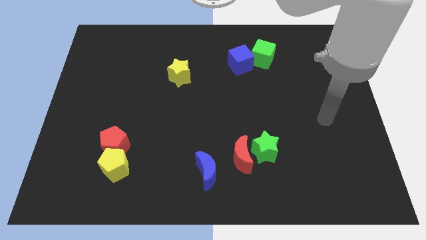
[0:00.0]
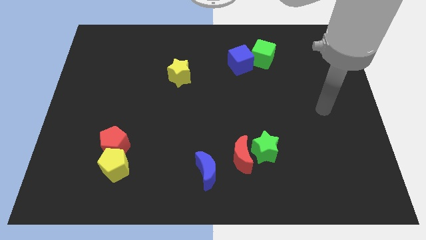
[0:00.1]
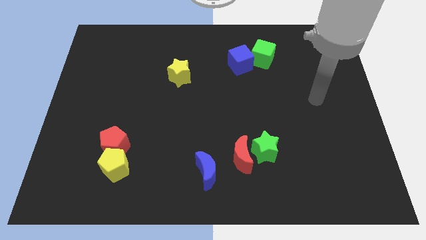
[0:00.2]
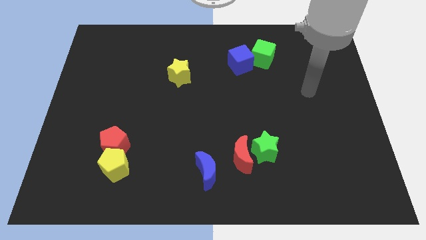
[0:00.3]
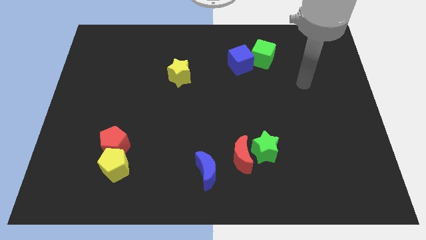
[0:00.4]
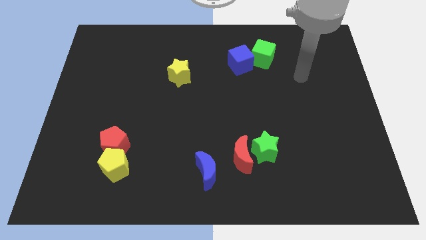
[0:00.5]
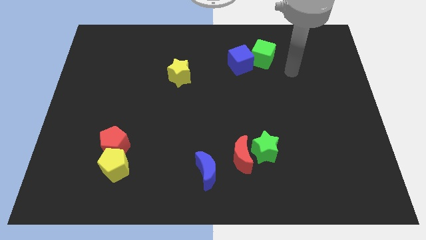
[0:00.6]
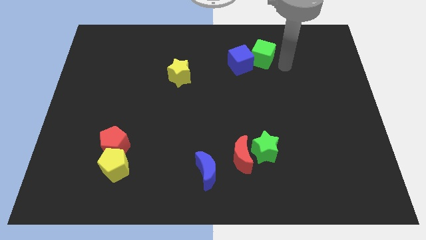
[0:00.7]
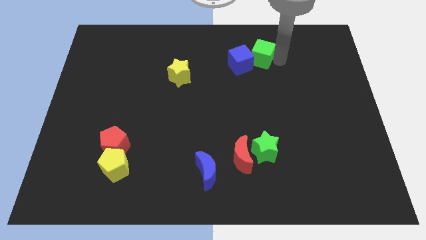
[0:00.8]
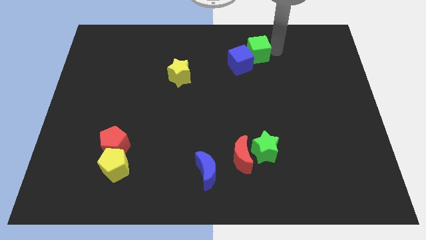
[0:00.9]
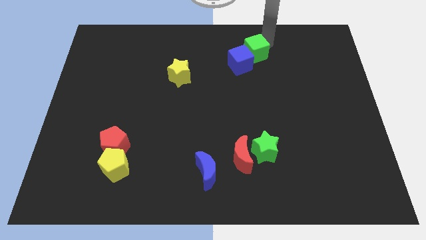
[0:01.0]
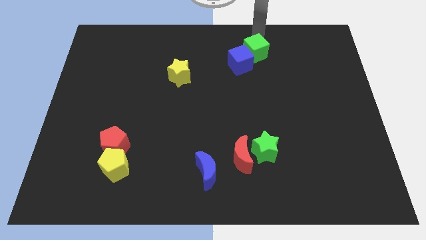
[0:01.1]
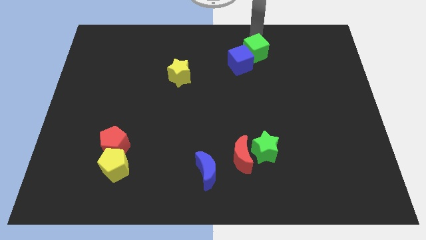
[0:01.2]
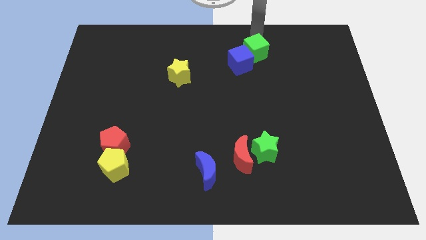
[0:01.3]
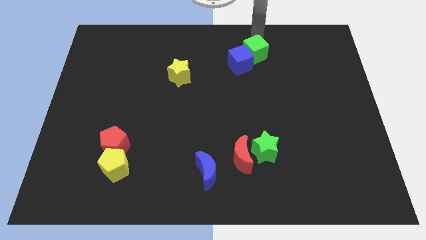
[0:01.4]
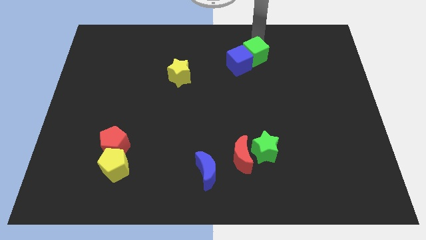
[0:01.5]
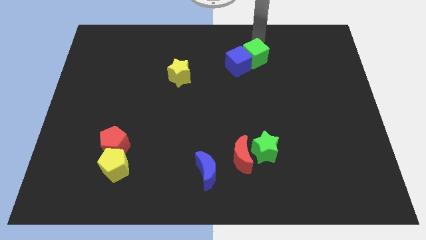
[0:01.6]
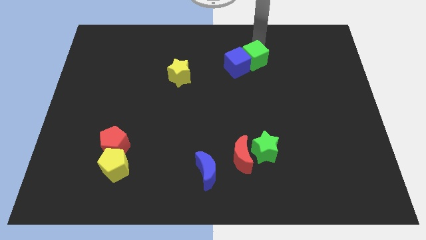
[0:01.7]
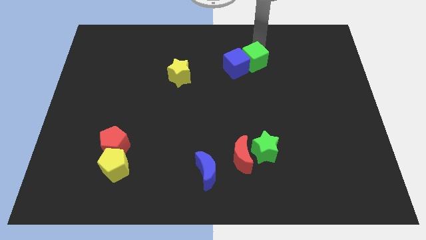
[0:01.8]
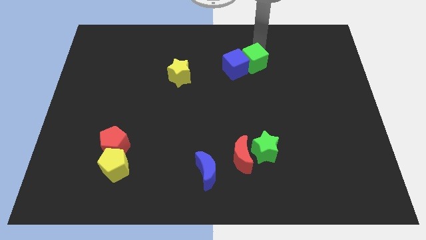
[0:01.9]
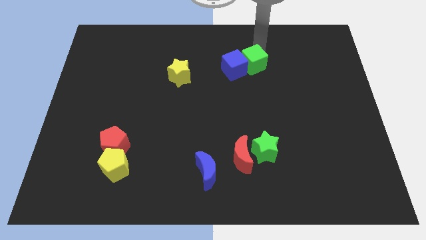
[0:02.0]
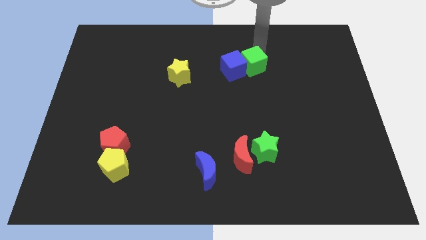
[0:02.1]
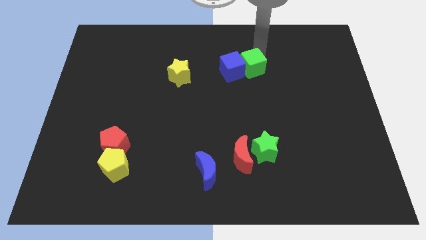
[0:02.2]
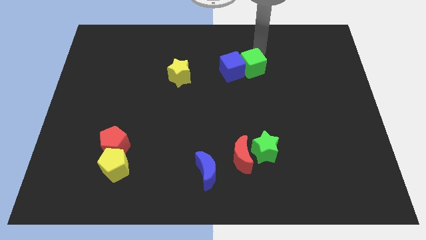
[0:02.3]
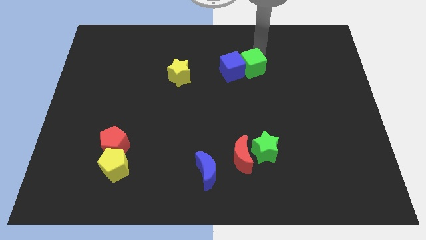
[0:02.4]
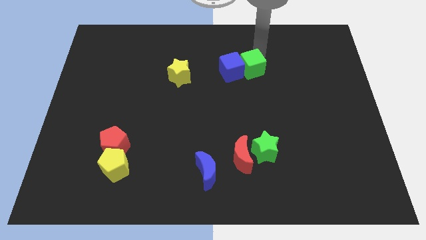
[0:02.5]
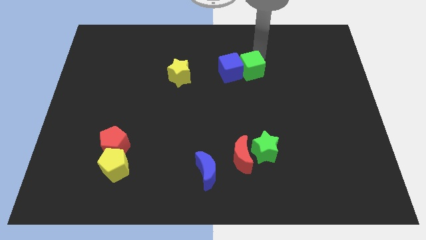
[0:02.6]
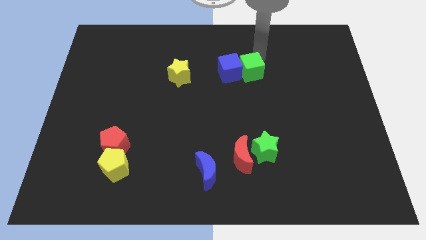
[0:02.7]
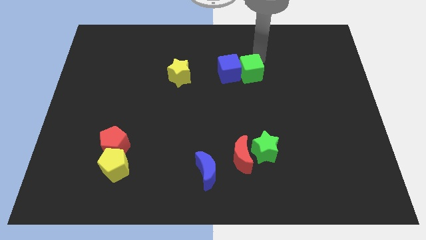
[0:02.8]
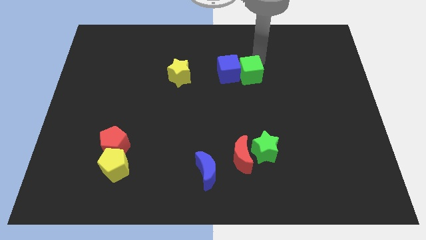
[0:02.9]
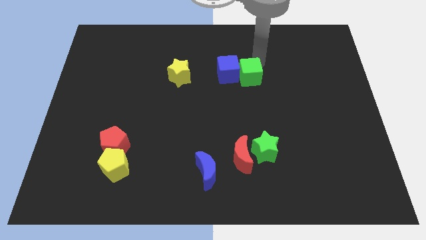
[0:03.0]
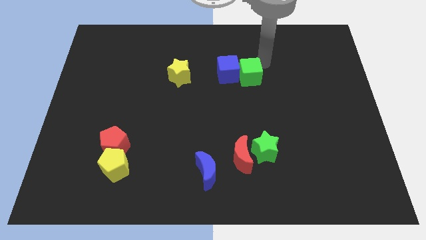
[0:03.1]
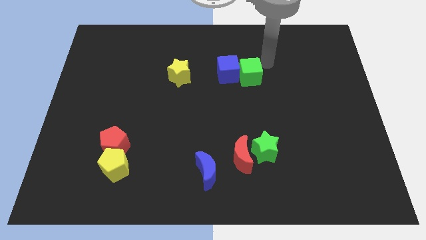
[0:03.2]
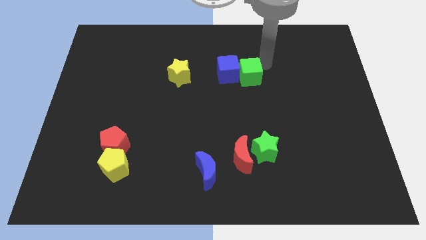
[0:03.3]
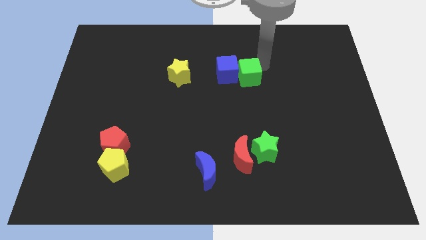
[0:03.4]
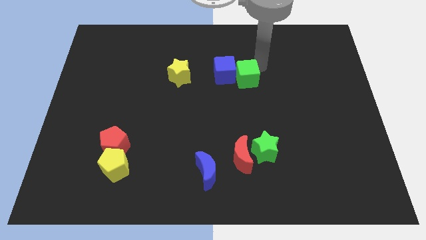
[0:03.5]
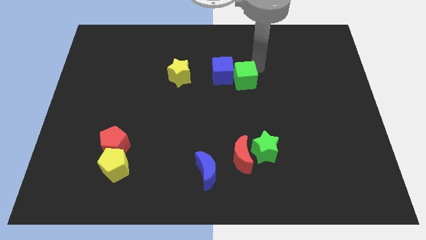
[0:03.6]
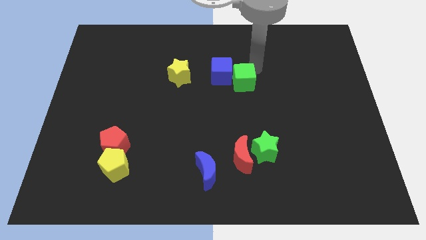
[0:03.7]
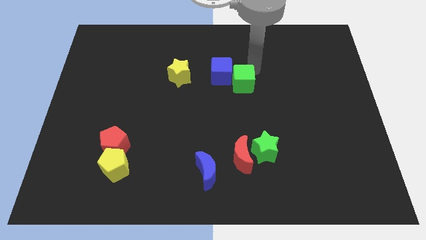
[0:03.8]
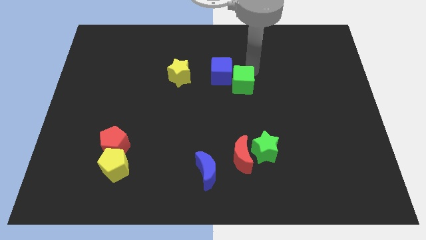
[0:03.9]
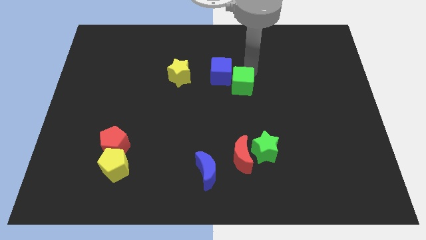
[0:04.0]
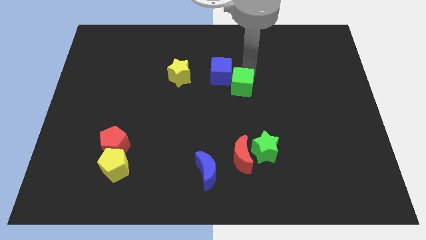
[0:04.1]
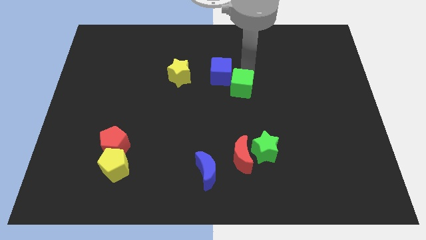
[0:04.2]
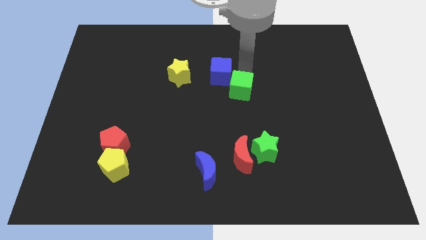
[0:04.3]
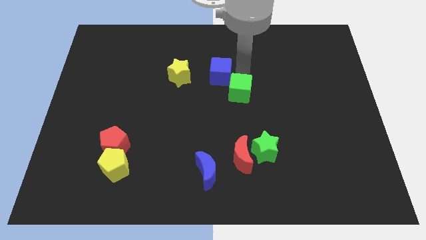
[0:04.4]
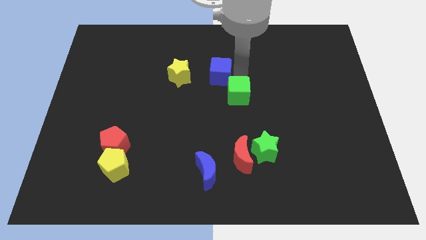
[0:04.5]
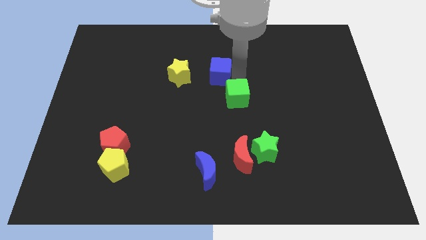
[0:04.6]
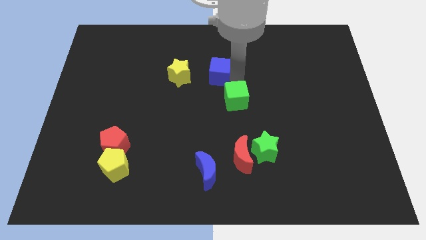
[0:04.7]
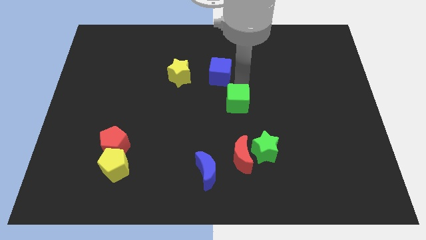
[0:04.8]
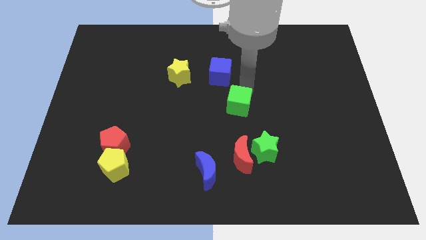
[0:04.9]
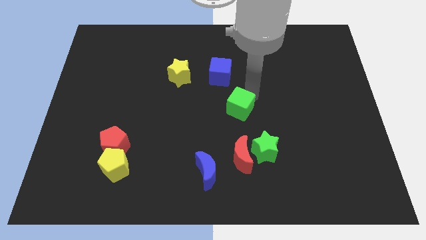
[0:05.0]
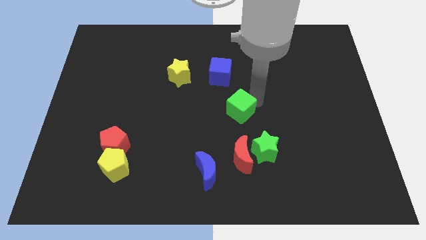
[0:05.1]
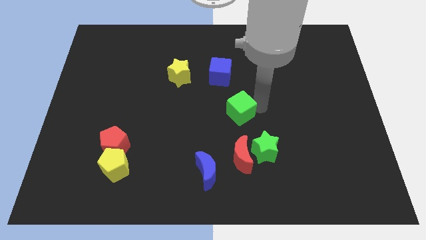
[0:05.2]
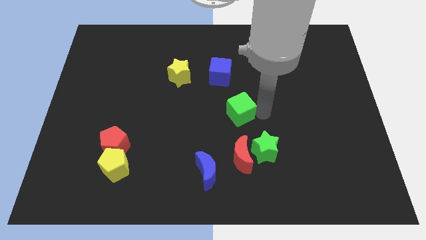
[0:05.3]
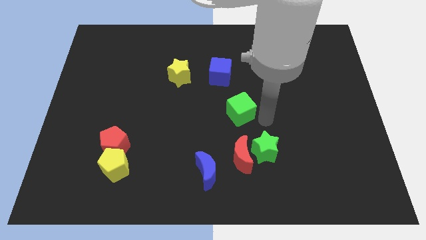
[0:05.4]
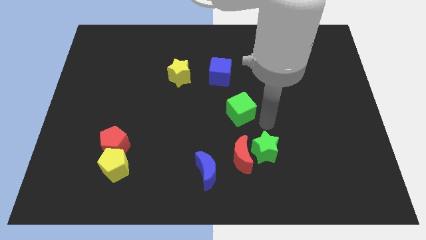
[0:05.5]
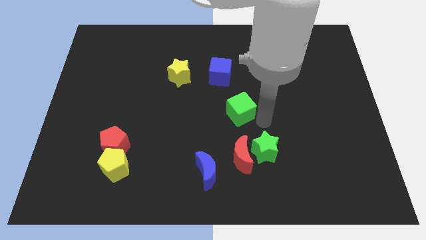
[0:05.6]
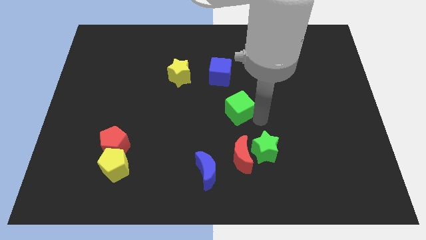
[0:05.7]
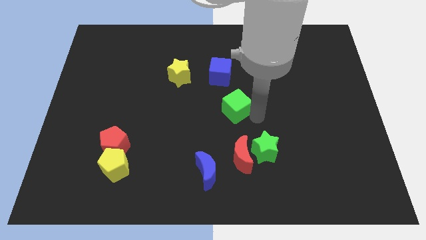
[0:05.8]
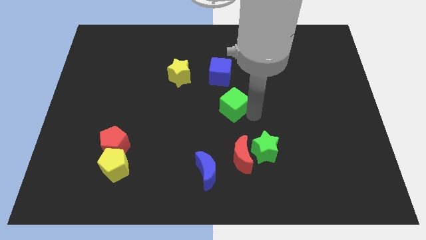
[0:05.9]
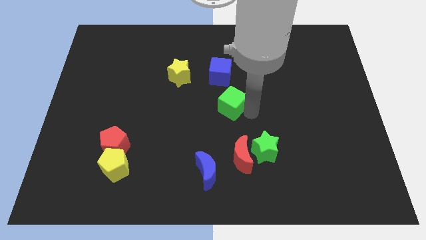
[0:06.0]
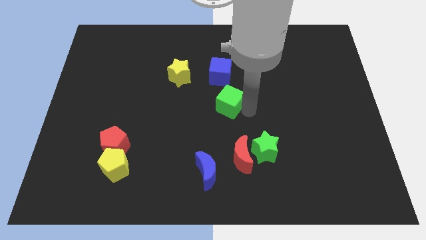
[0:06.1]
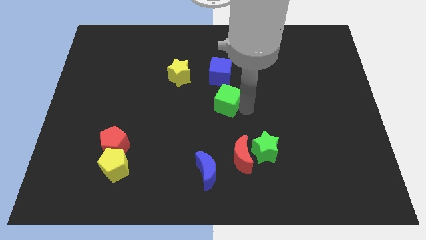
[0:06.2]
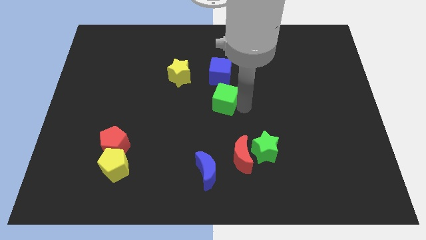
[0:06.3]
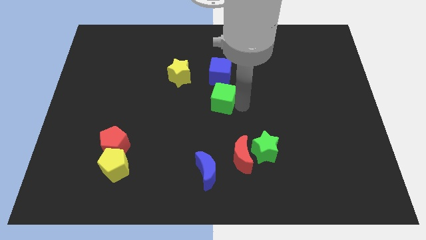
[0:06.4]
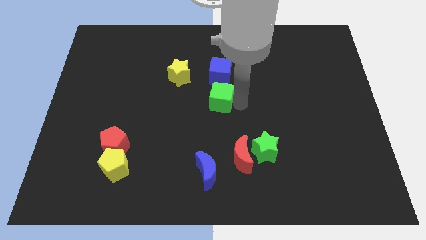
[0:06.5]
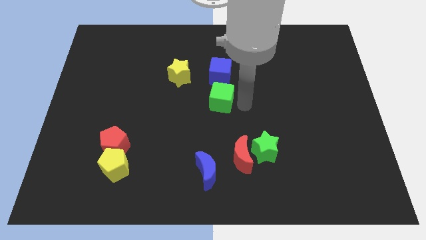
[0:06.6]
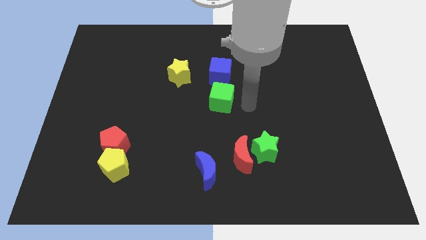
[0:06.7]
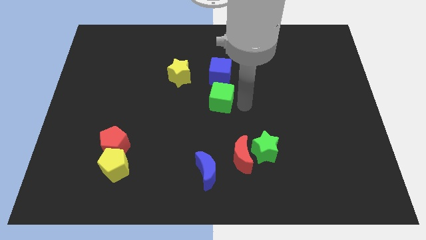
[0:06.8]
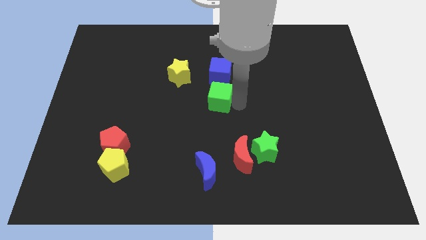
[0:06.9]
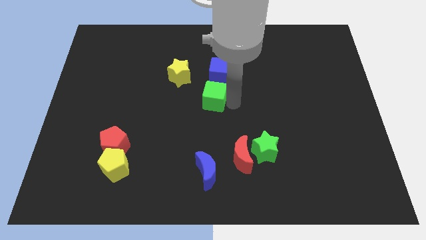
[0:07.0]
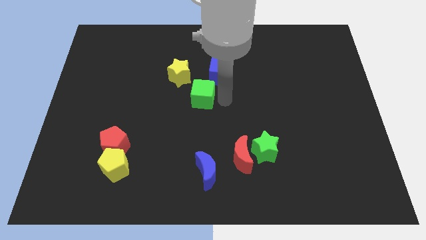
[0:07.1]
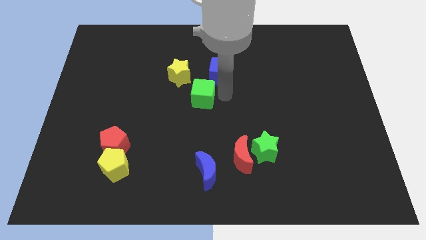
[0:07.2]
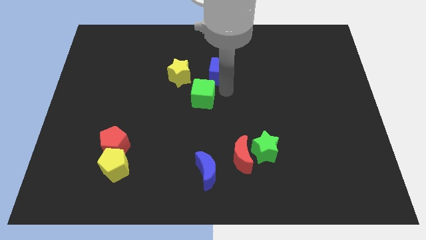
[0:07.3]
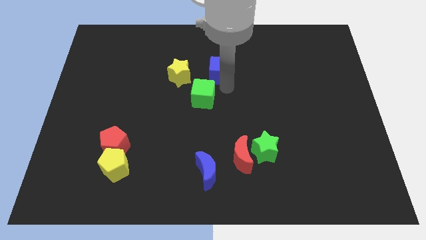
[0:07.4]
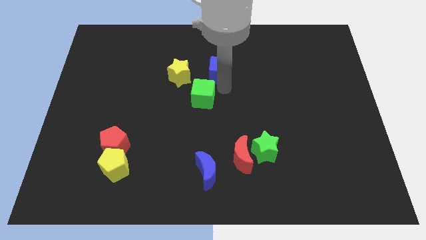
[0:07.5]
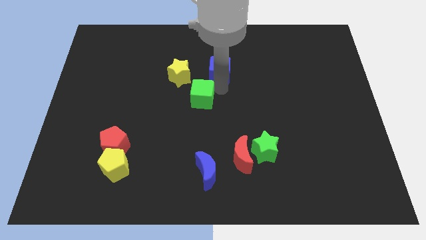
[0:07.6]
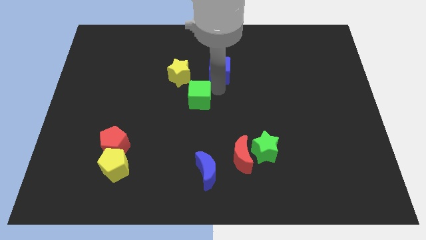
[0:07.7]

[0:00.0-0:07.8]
slide the green cube below the yellow star
